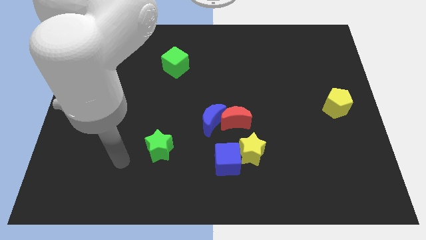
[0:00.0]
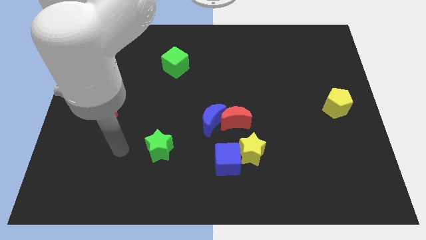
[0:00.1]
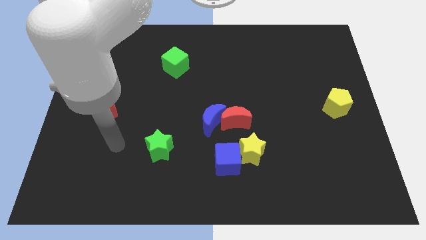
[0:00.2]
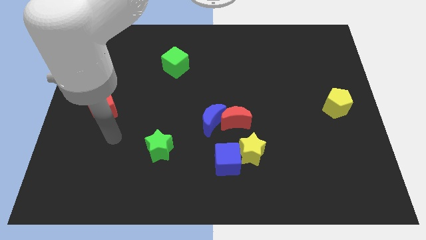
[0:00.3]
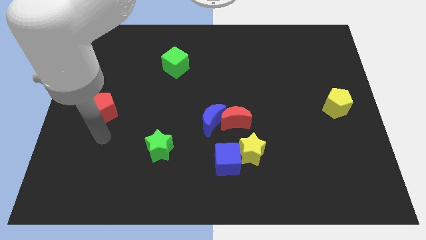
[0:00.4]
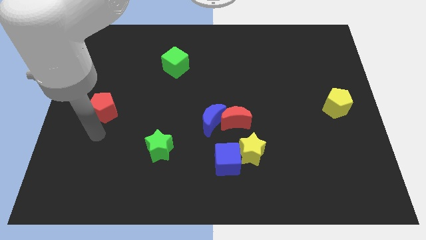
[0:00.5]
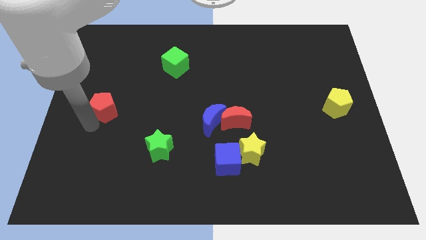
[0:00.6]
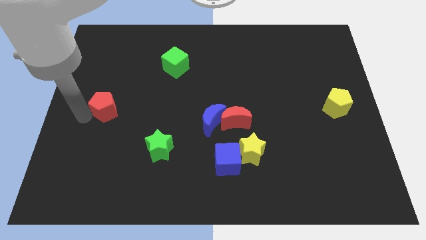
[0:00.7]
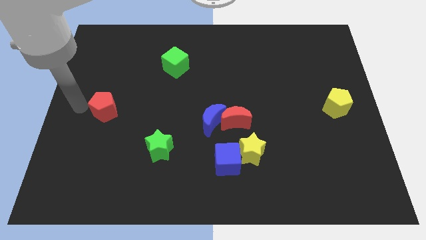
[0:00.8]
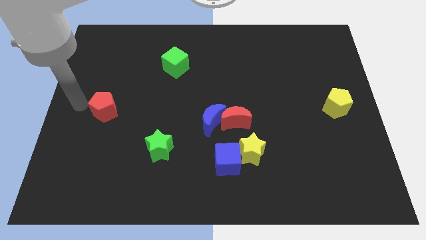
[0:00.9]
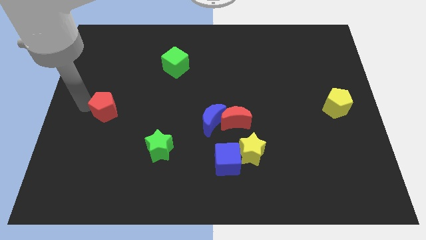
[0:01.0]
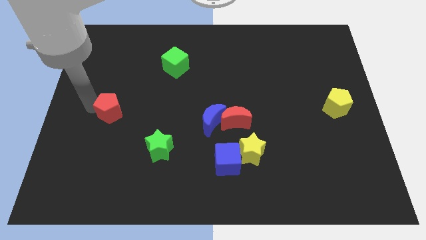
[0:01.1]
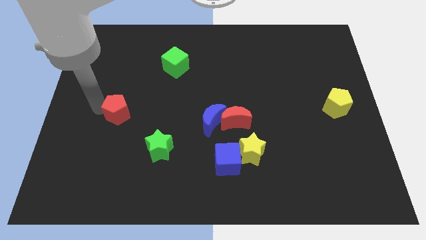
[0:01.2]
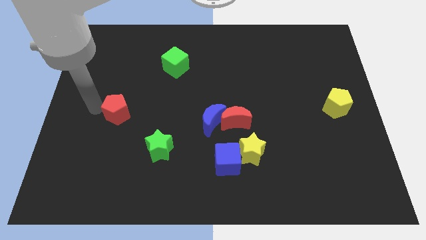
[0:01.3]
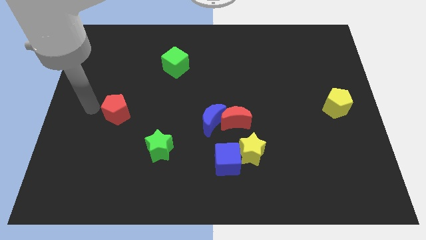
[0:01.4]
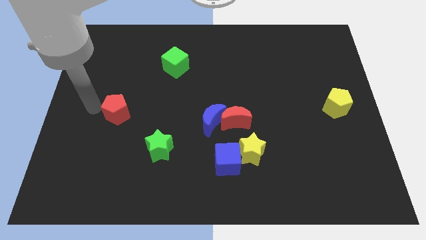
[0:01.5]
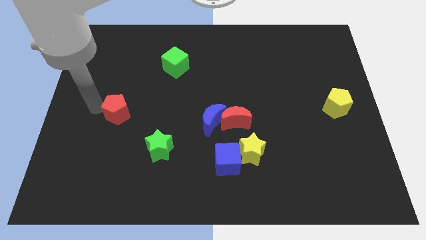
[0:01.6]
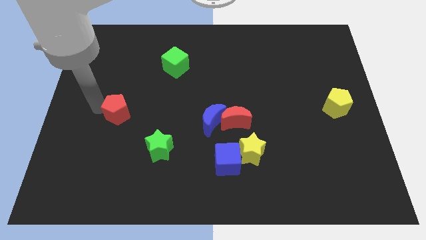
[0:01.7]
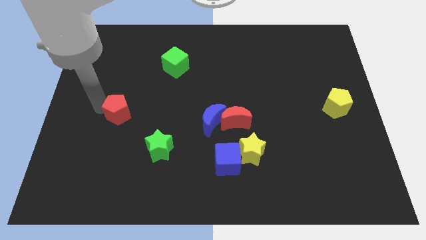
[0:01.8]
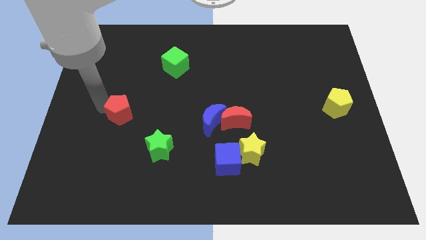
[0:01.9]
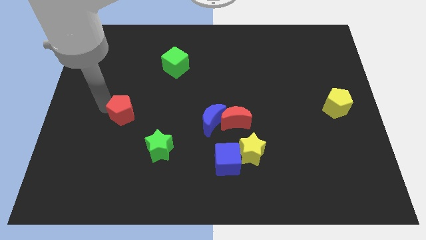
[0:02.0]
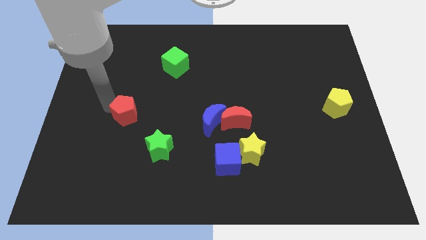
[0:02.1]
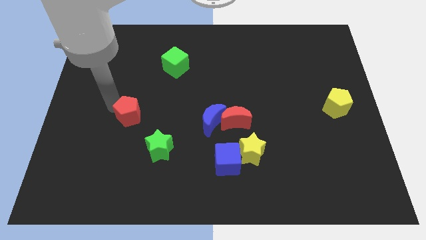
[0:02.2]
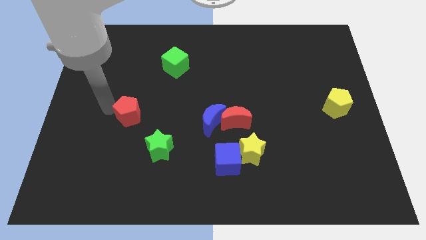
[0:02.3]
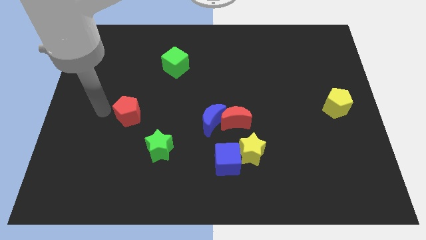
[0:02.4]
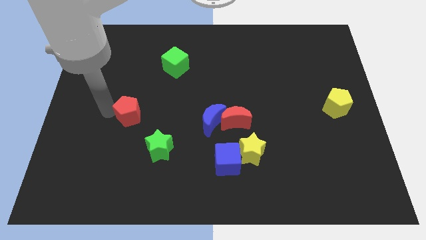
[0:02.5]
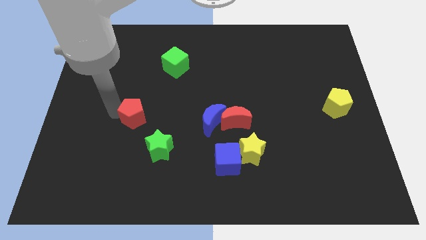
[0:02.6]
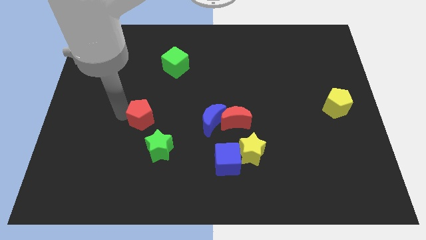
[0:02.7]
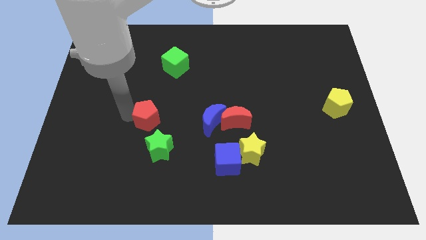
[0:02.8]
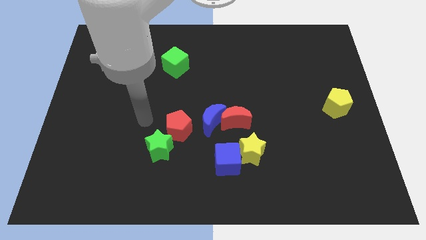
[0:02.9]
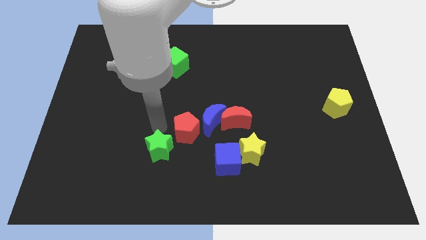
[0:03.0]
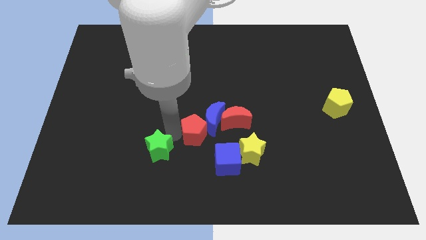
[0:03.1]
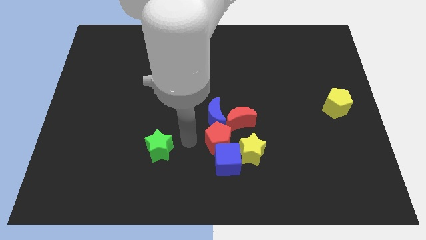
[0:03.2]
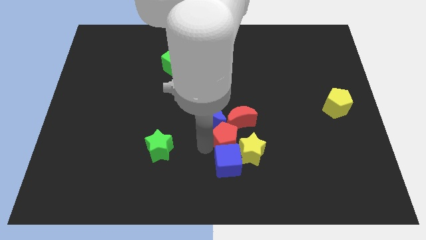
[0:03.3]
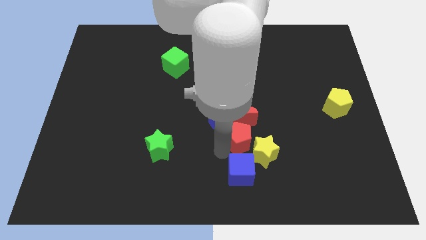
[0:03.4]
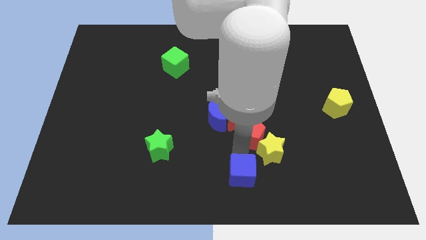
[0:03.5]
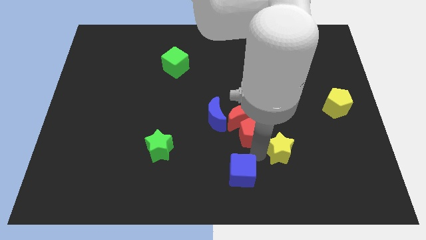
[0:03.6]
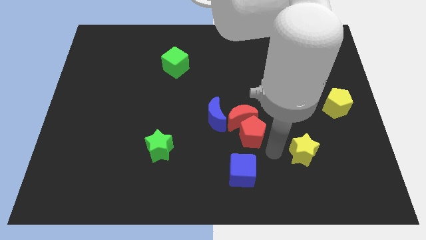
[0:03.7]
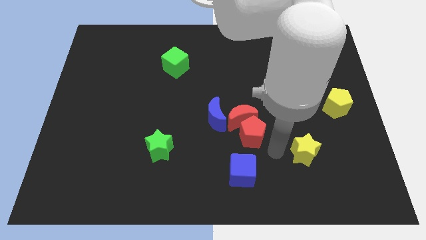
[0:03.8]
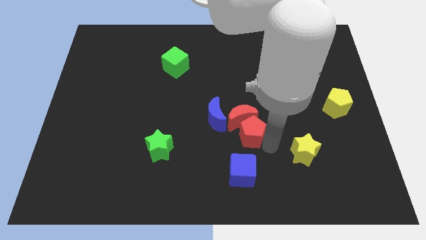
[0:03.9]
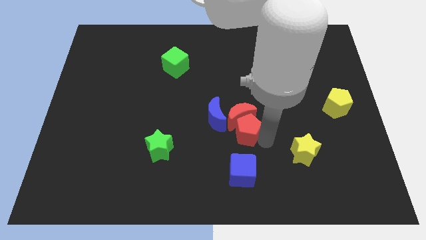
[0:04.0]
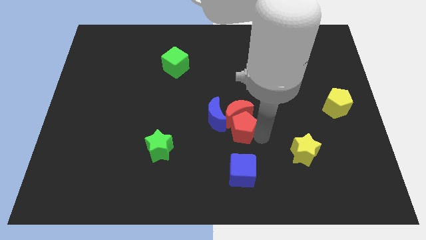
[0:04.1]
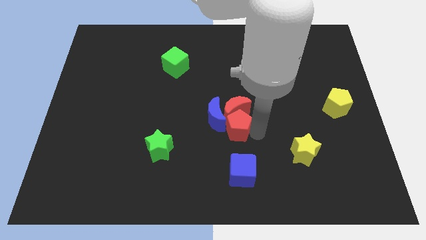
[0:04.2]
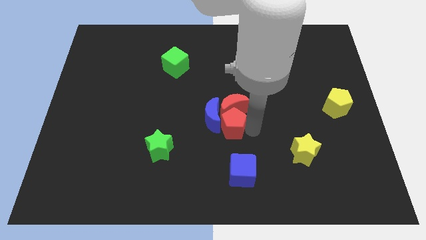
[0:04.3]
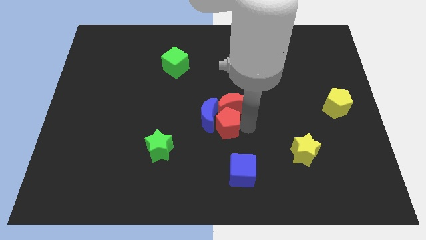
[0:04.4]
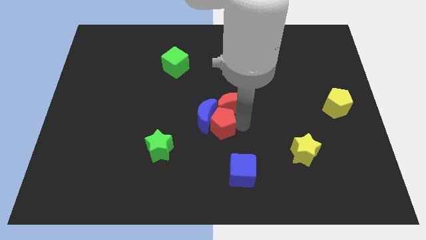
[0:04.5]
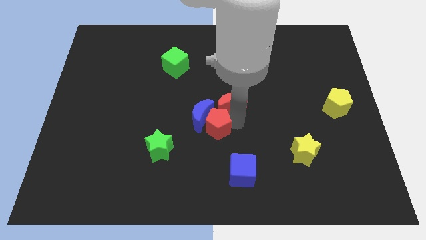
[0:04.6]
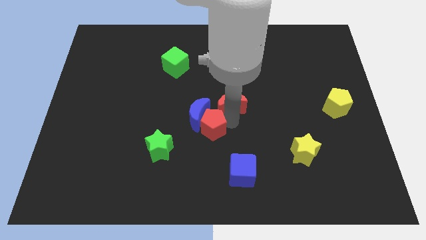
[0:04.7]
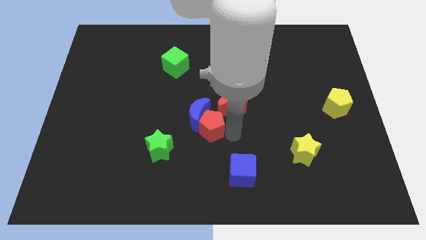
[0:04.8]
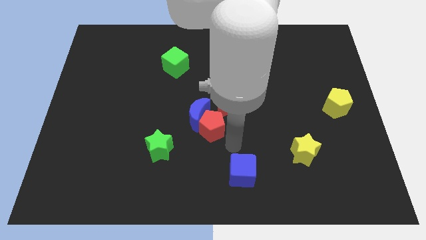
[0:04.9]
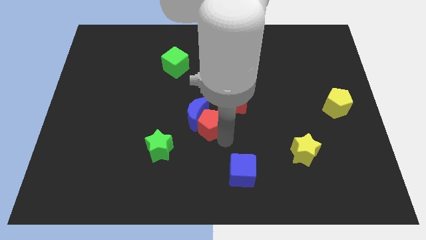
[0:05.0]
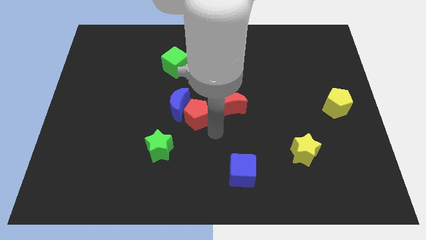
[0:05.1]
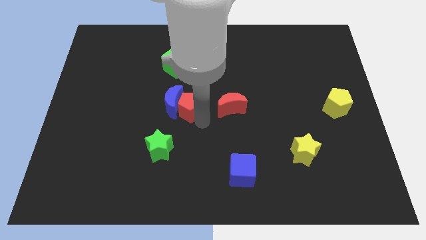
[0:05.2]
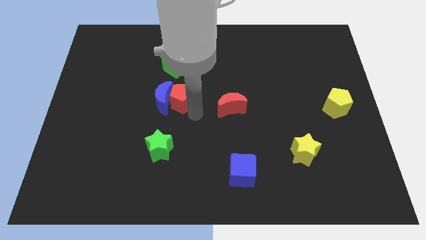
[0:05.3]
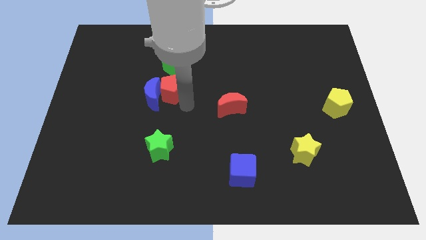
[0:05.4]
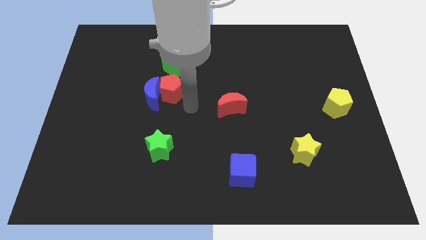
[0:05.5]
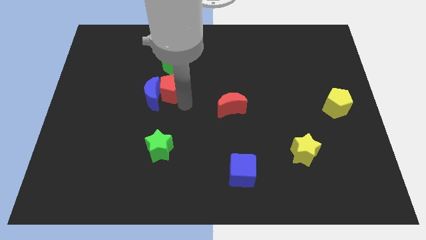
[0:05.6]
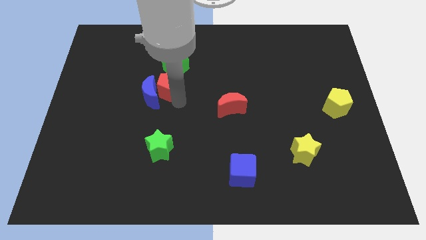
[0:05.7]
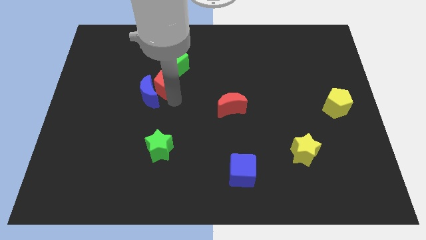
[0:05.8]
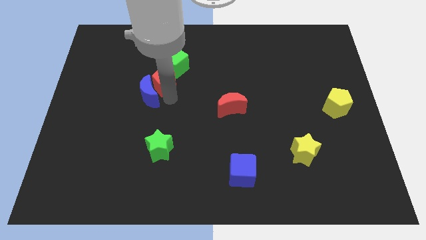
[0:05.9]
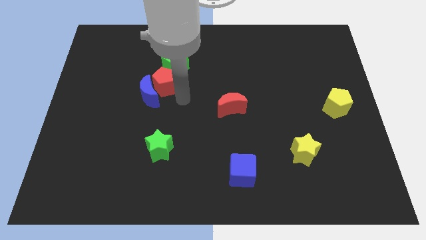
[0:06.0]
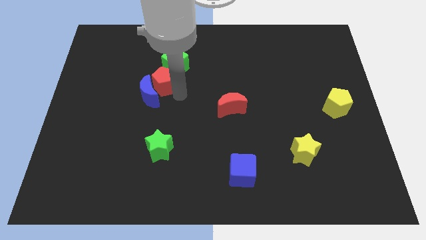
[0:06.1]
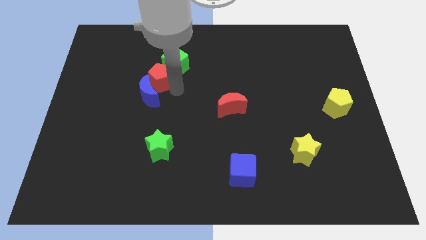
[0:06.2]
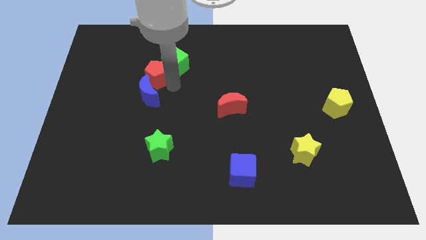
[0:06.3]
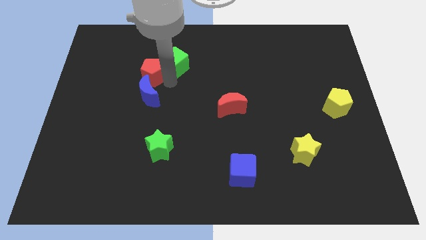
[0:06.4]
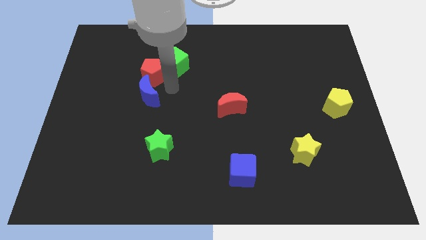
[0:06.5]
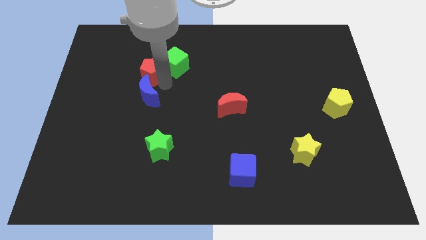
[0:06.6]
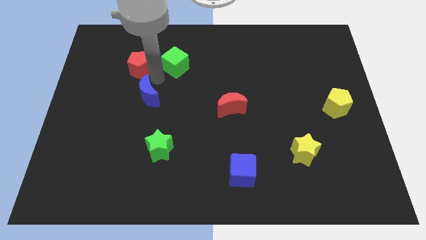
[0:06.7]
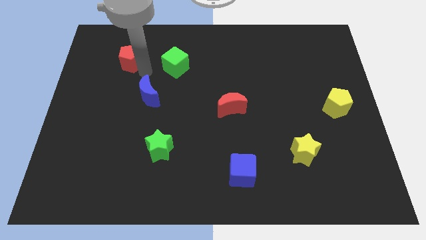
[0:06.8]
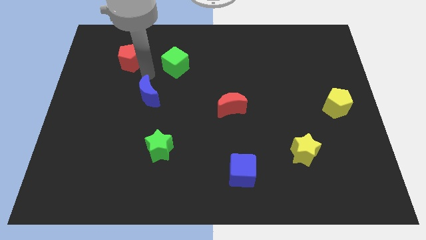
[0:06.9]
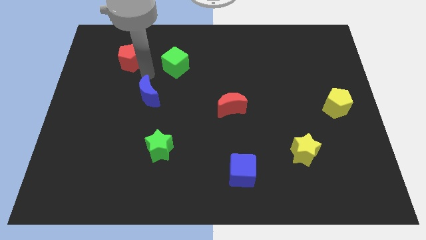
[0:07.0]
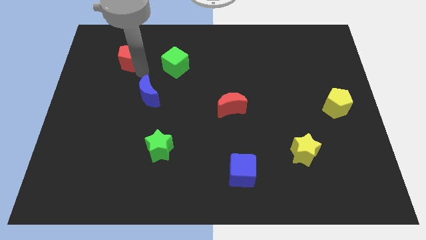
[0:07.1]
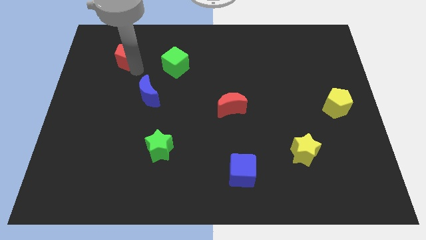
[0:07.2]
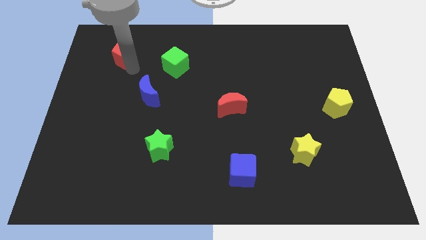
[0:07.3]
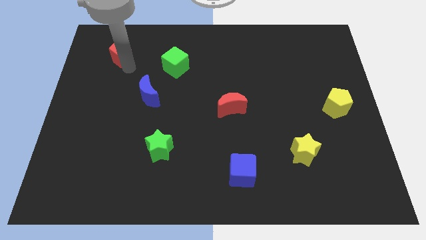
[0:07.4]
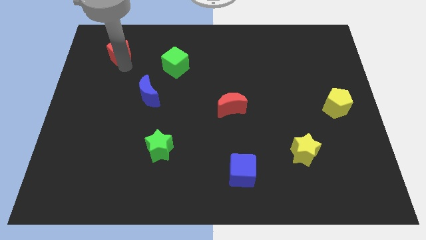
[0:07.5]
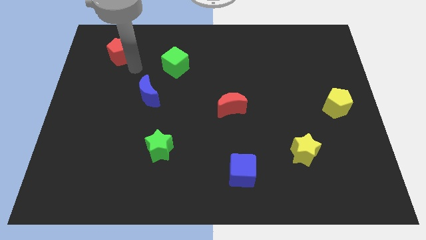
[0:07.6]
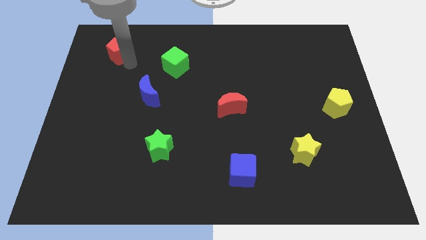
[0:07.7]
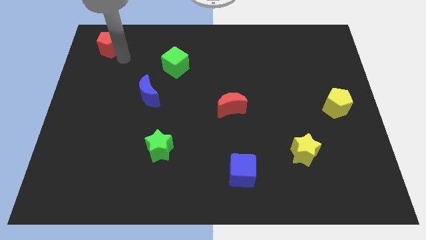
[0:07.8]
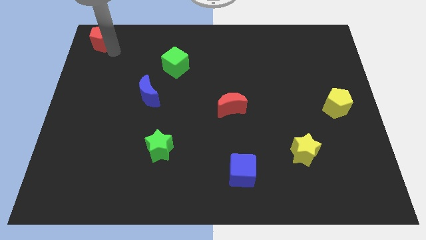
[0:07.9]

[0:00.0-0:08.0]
push the red pentagon to the top left of the board

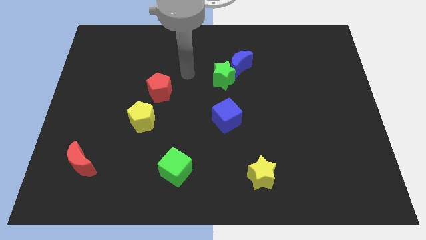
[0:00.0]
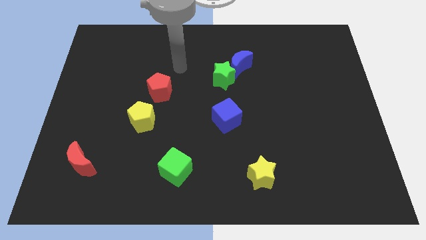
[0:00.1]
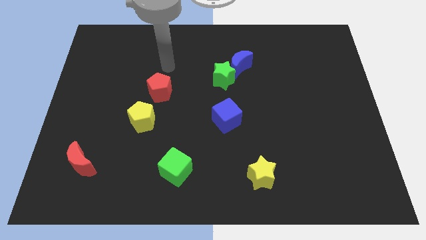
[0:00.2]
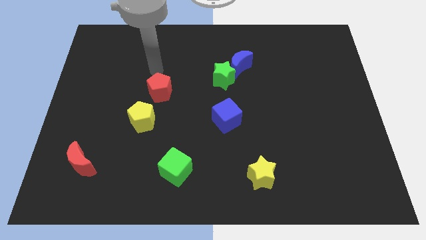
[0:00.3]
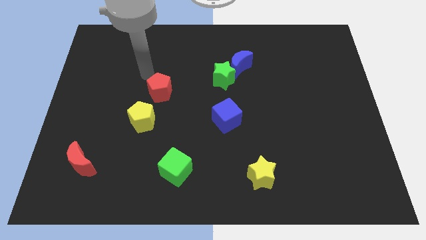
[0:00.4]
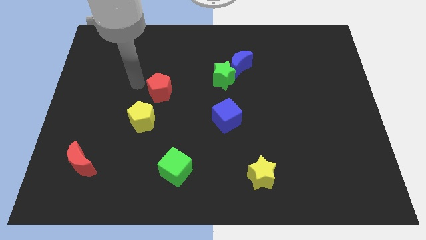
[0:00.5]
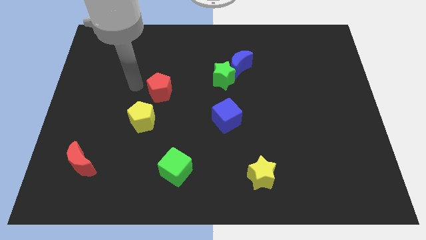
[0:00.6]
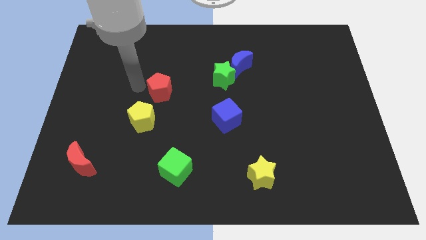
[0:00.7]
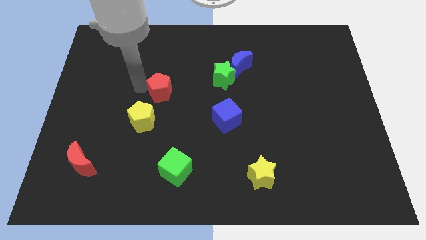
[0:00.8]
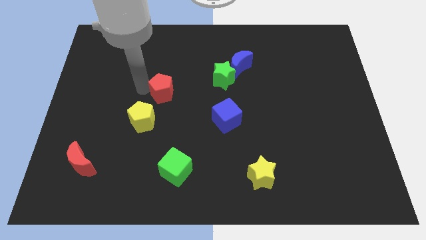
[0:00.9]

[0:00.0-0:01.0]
put the red pentagon to the center
